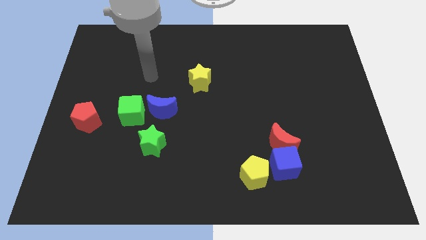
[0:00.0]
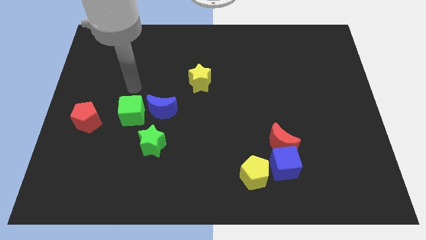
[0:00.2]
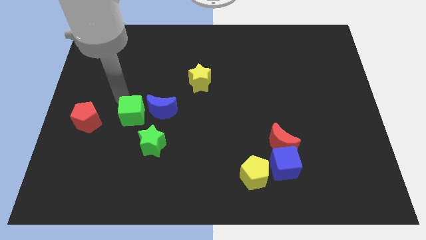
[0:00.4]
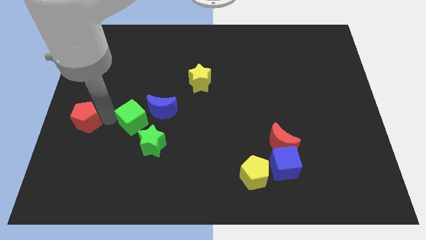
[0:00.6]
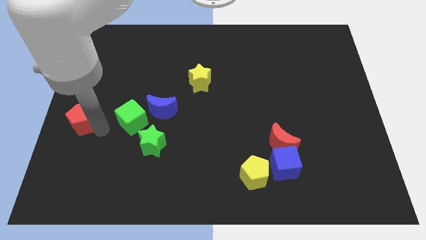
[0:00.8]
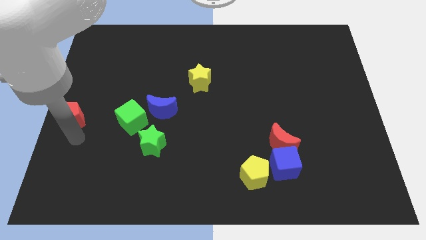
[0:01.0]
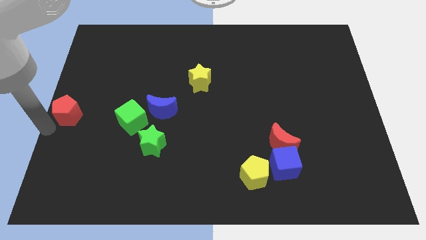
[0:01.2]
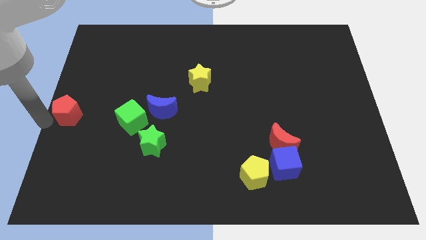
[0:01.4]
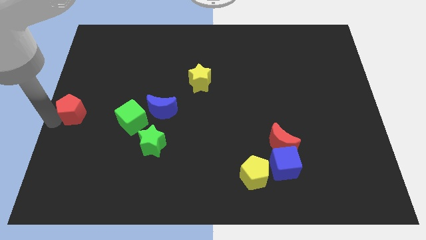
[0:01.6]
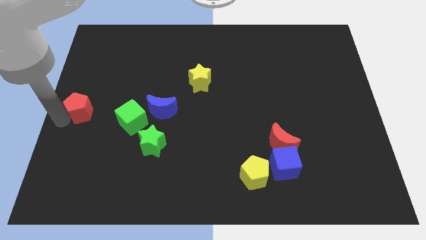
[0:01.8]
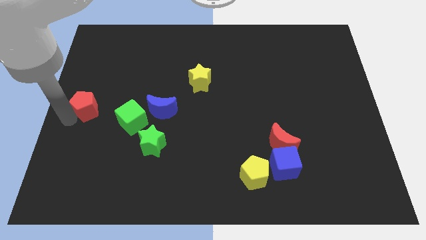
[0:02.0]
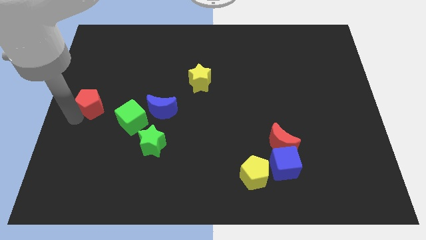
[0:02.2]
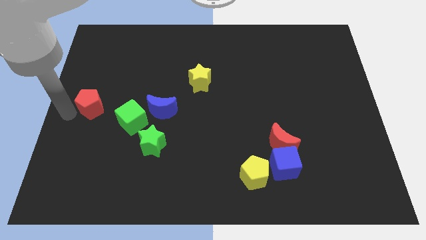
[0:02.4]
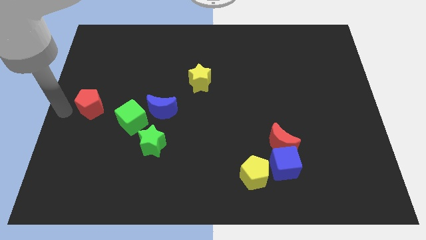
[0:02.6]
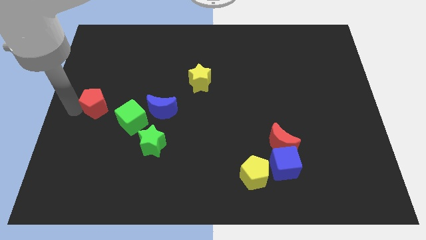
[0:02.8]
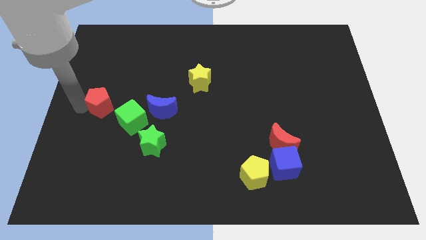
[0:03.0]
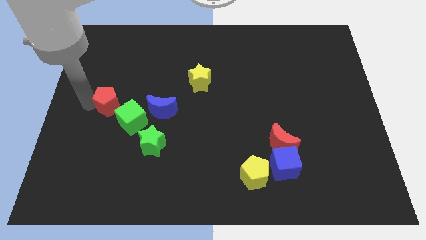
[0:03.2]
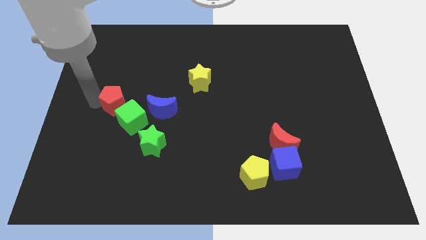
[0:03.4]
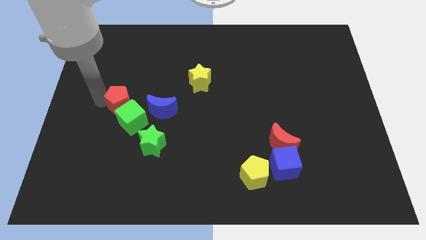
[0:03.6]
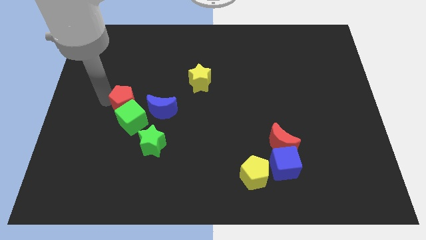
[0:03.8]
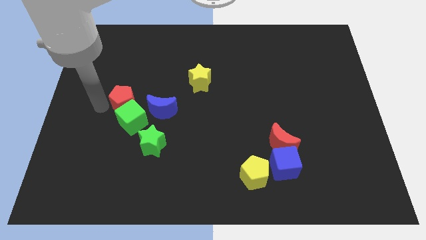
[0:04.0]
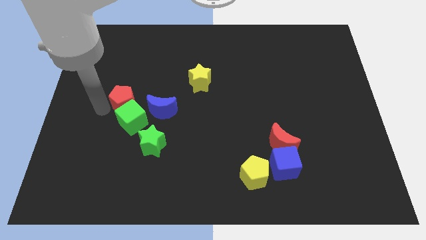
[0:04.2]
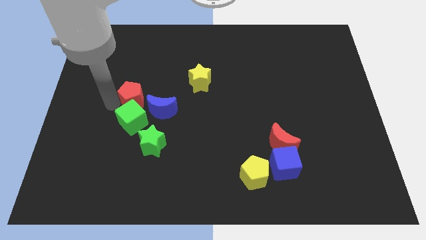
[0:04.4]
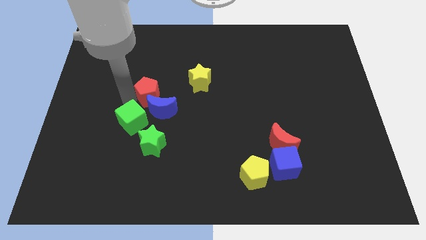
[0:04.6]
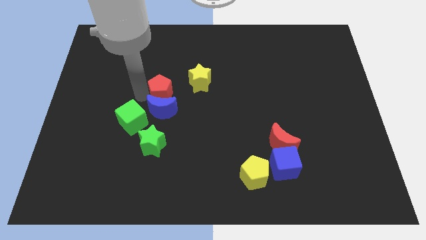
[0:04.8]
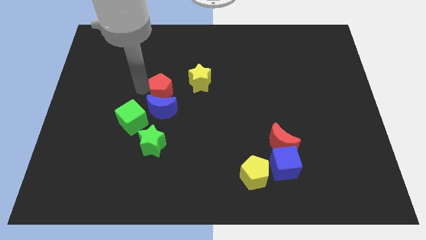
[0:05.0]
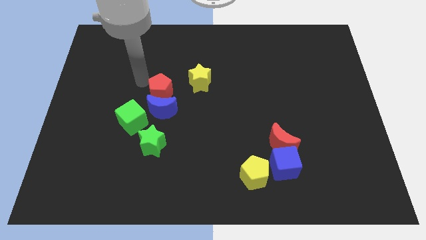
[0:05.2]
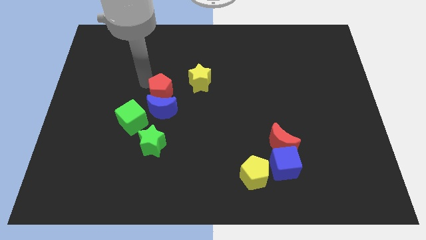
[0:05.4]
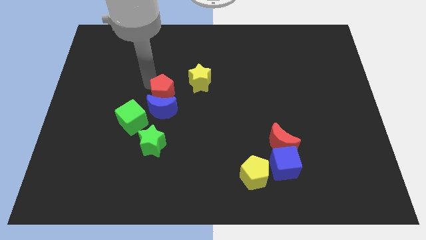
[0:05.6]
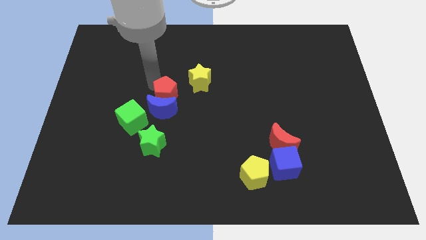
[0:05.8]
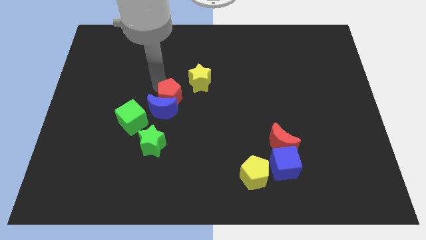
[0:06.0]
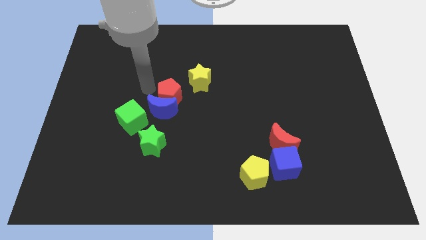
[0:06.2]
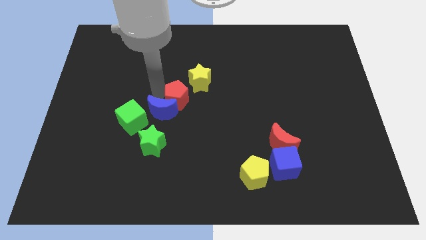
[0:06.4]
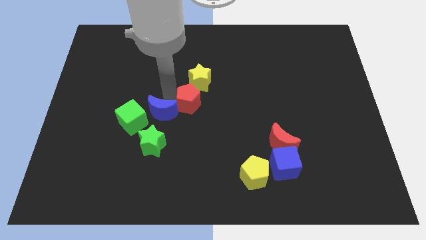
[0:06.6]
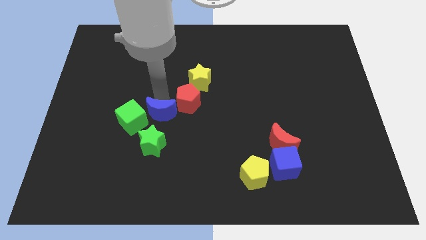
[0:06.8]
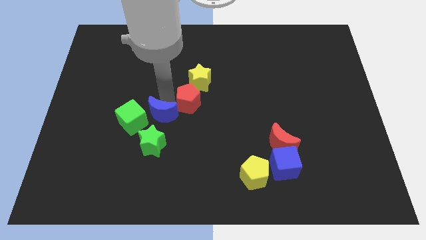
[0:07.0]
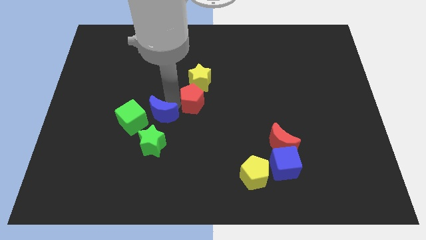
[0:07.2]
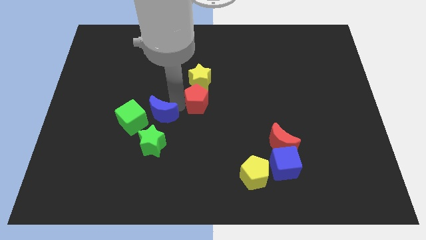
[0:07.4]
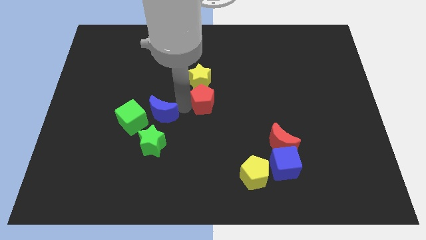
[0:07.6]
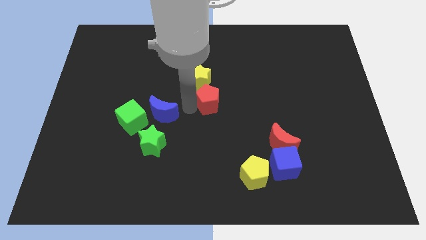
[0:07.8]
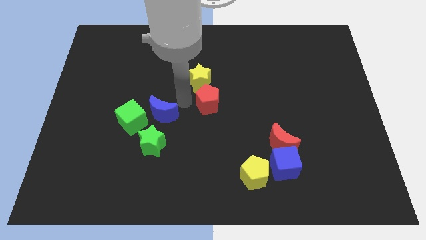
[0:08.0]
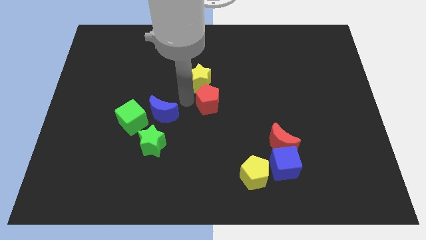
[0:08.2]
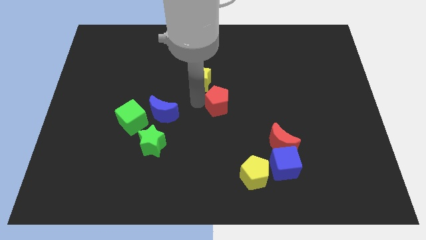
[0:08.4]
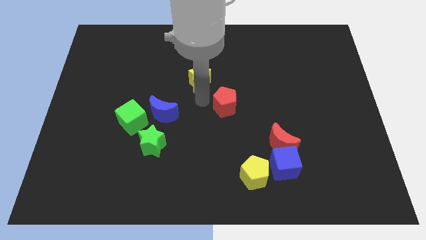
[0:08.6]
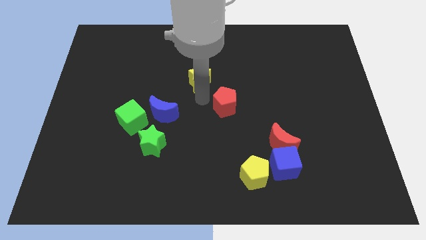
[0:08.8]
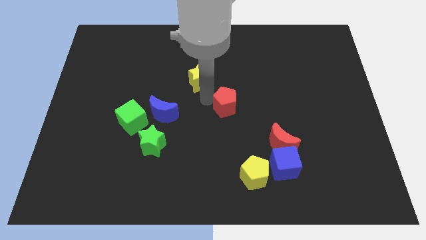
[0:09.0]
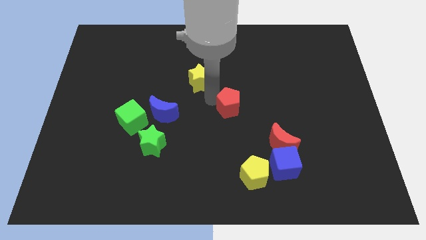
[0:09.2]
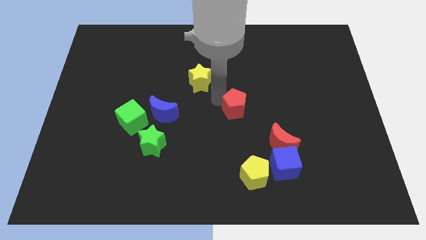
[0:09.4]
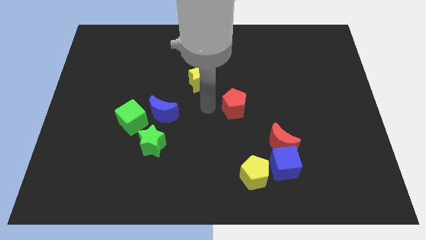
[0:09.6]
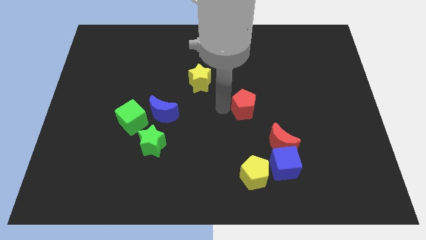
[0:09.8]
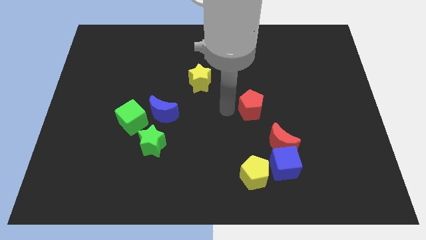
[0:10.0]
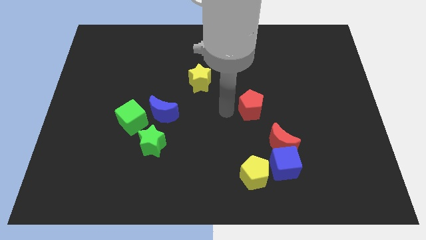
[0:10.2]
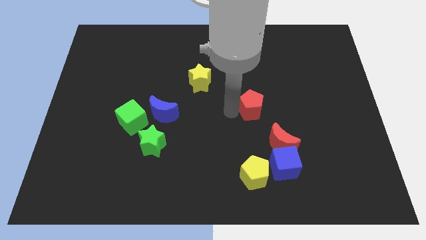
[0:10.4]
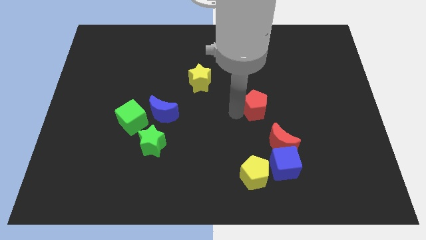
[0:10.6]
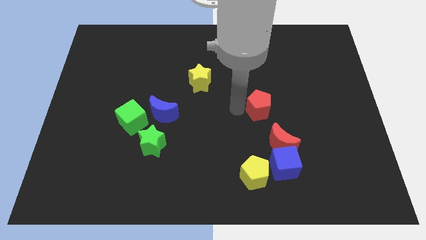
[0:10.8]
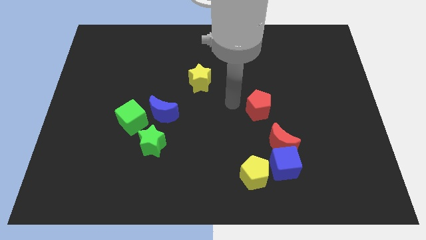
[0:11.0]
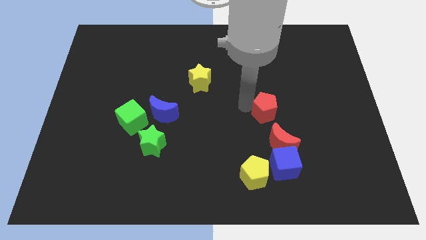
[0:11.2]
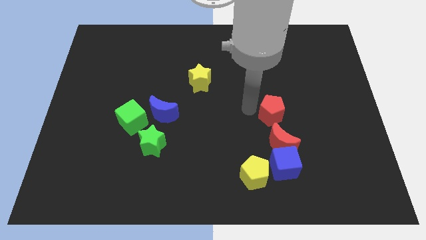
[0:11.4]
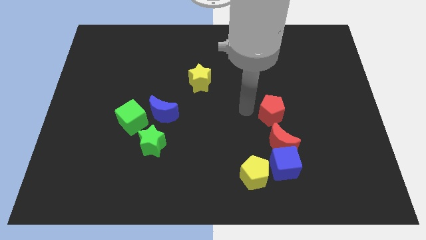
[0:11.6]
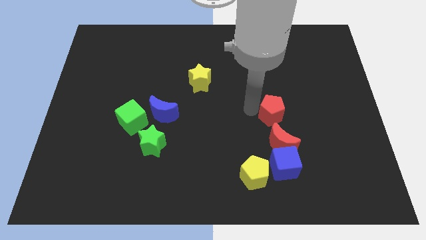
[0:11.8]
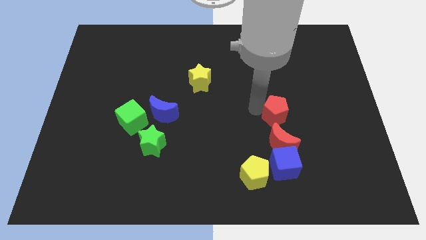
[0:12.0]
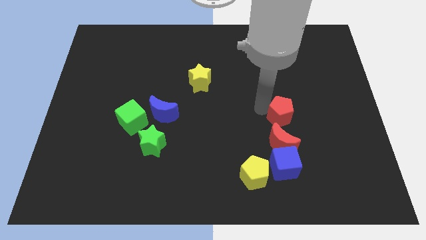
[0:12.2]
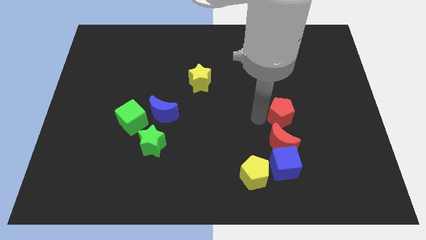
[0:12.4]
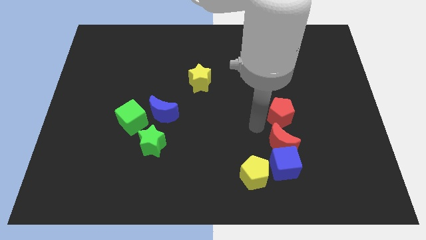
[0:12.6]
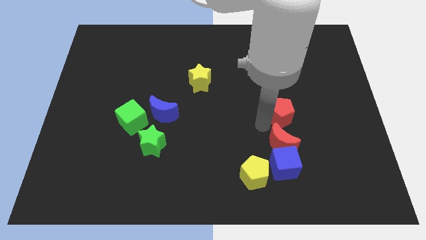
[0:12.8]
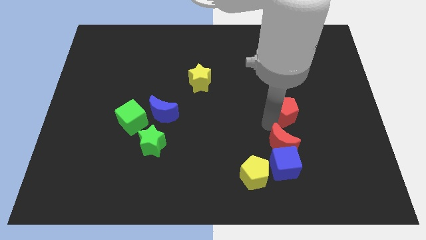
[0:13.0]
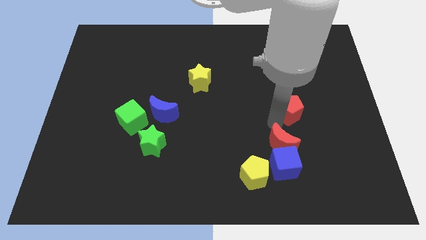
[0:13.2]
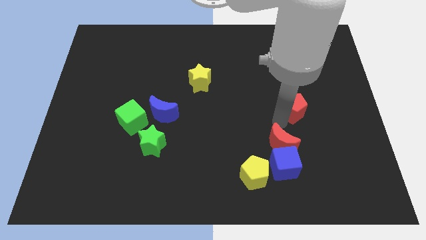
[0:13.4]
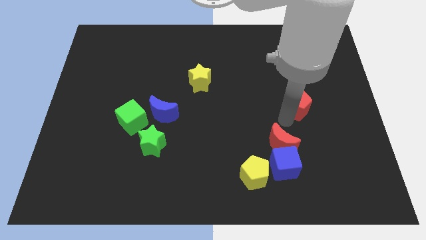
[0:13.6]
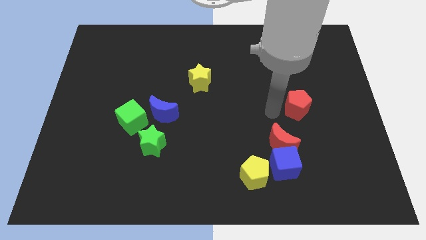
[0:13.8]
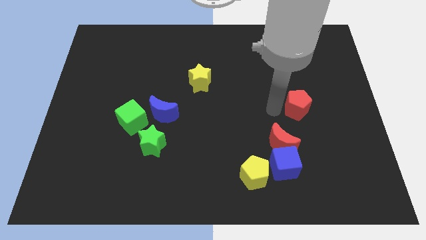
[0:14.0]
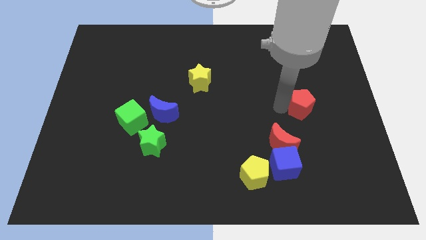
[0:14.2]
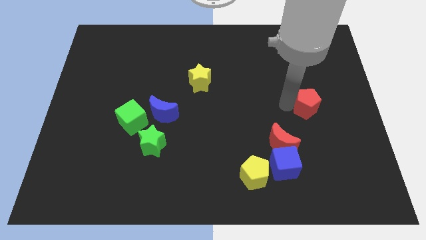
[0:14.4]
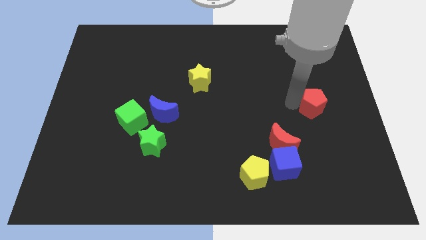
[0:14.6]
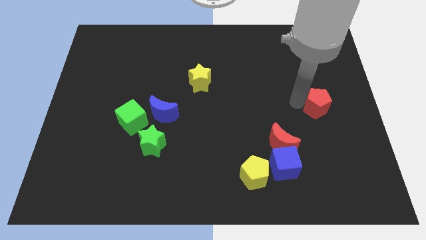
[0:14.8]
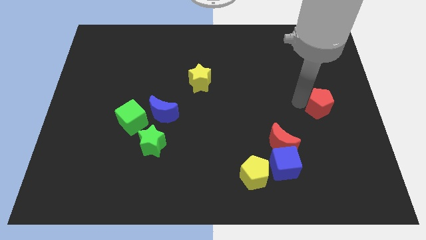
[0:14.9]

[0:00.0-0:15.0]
slide the red pentagon to the right side
